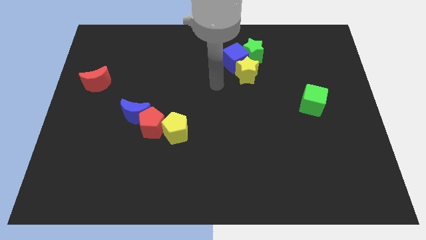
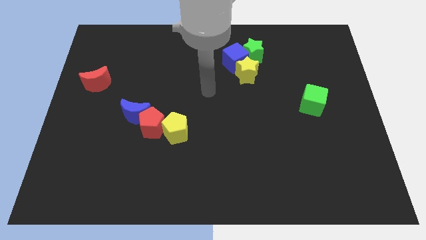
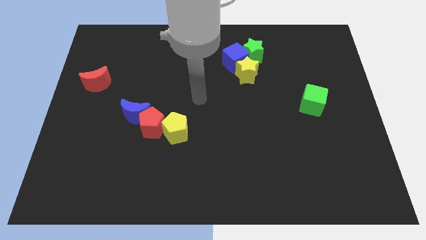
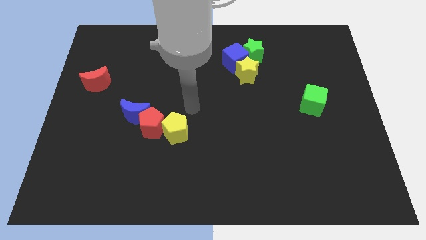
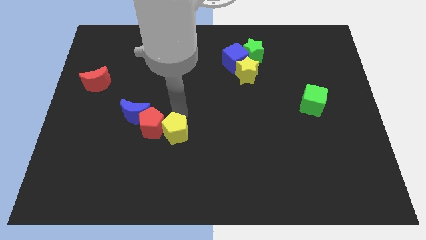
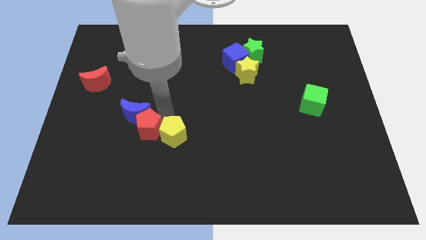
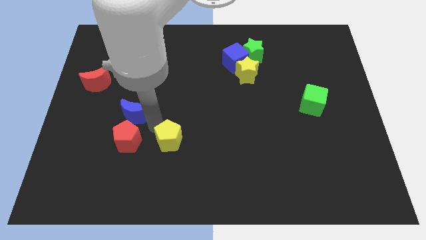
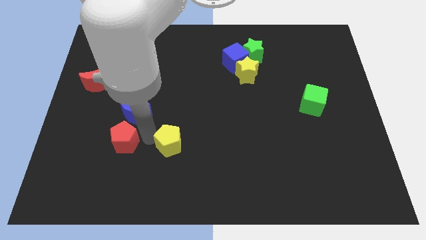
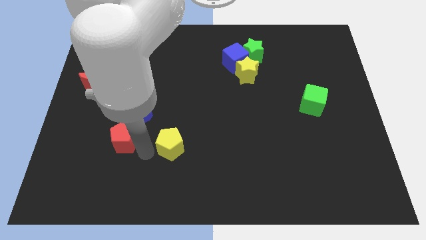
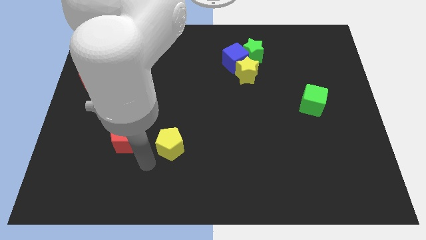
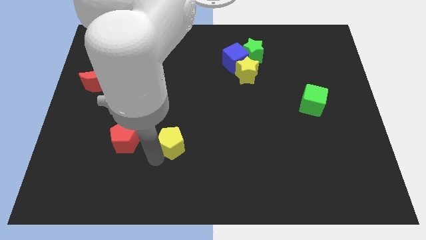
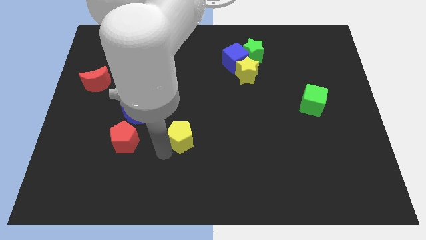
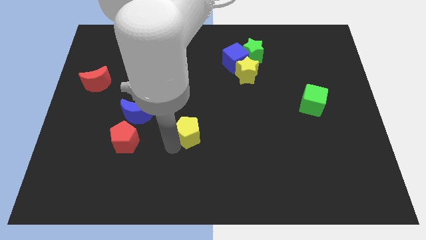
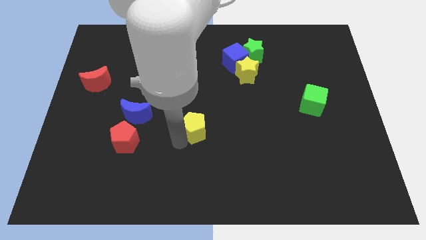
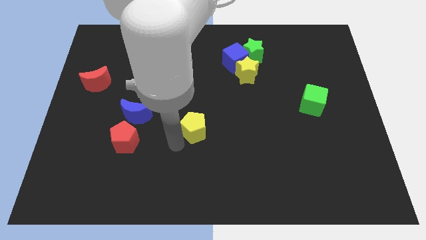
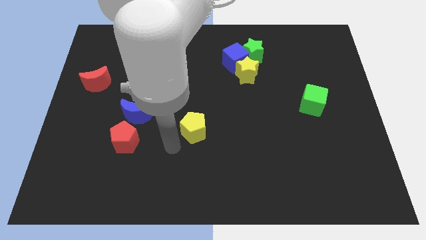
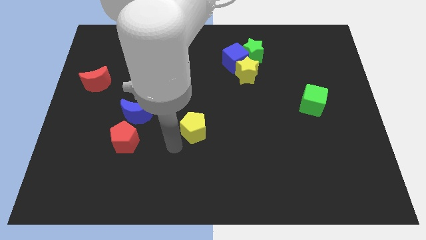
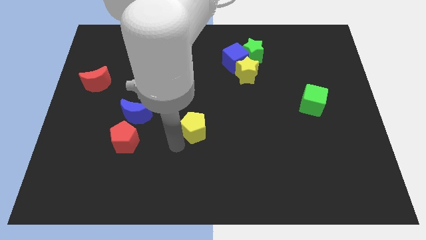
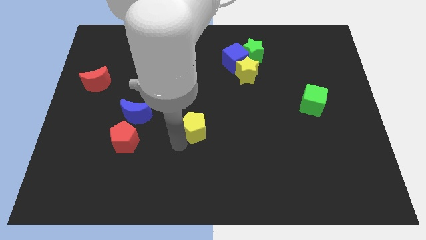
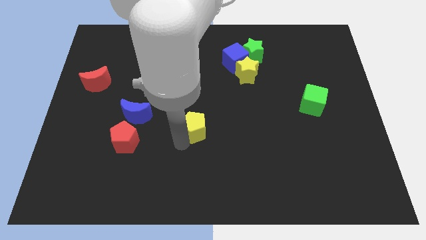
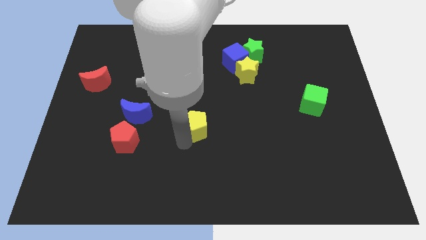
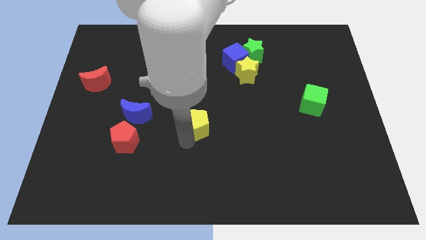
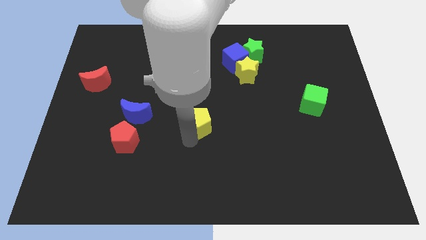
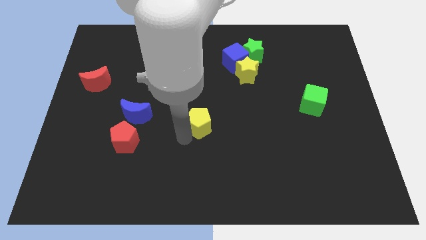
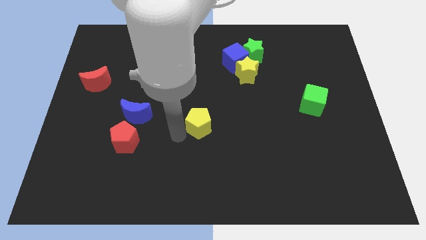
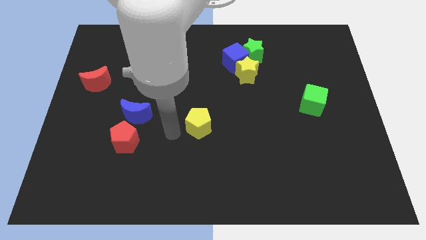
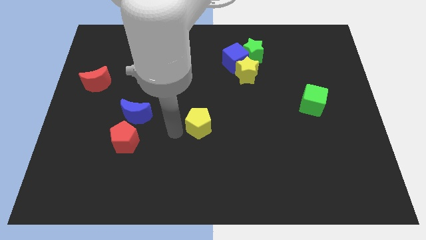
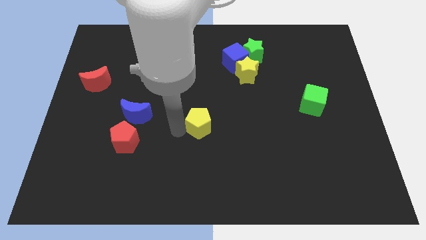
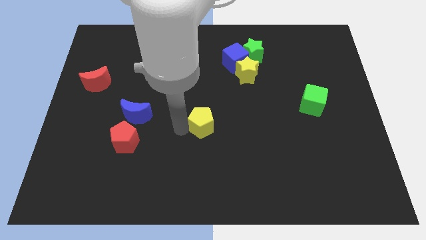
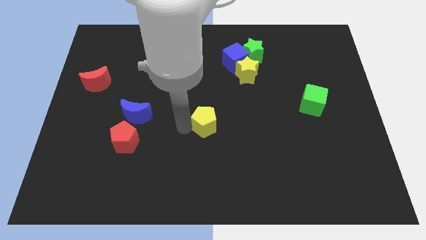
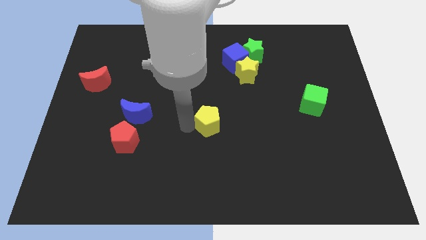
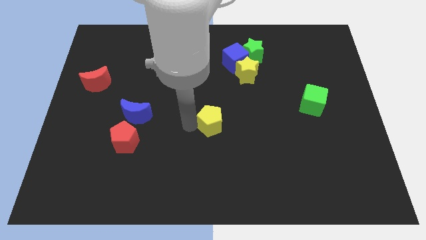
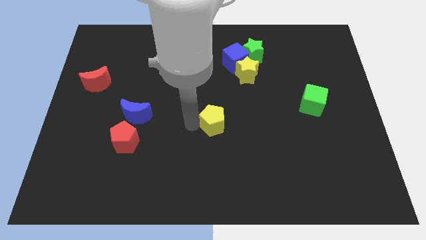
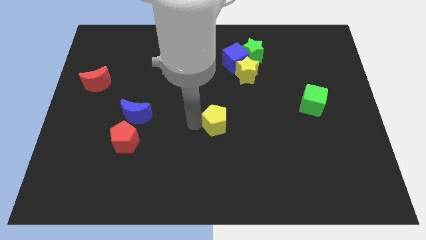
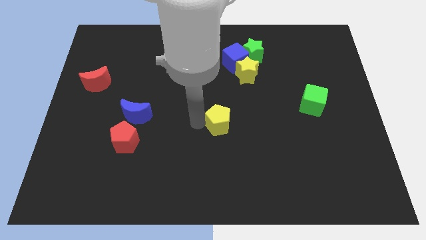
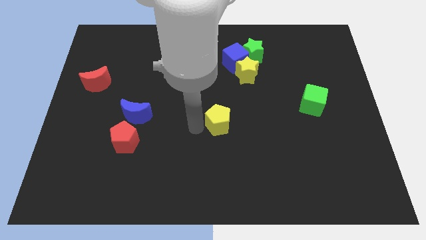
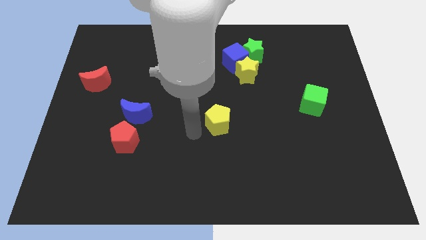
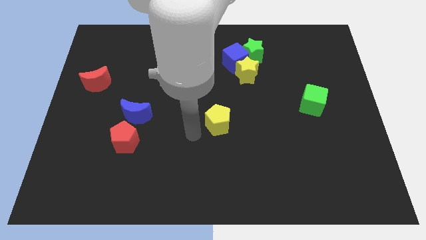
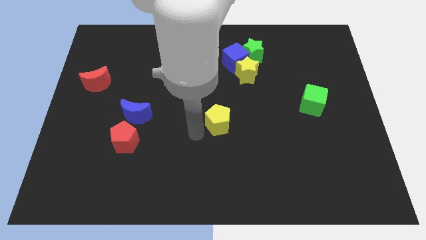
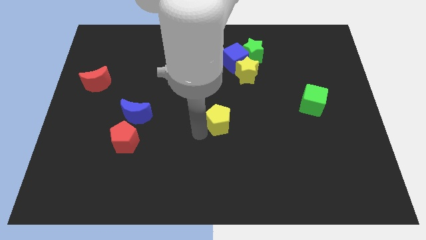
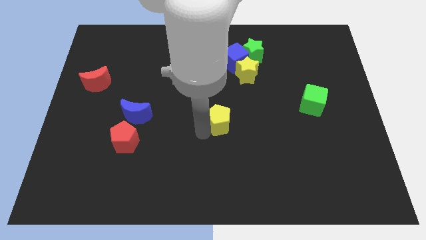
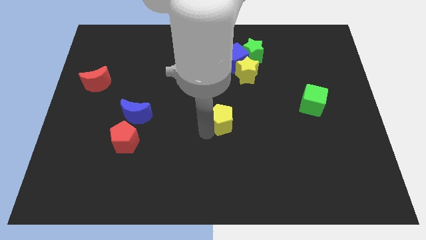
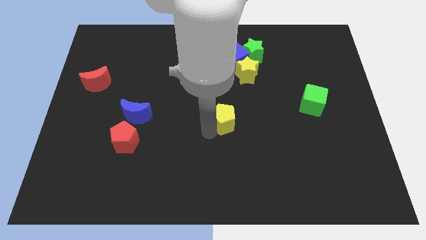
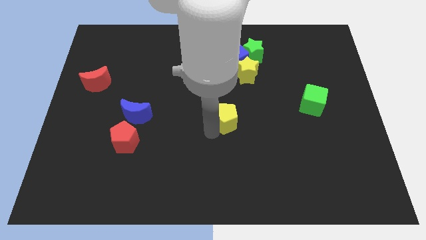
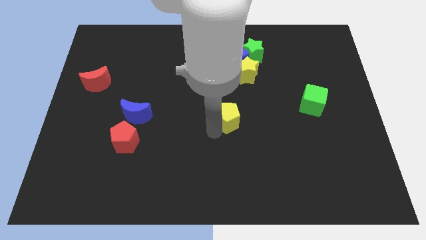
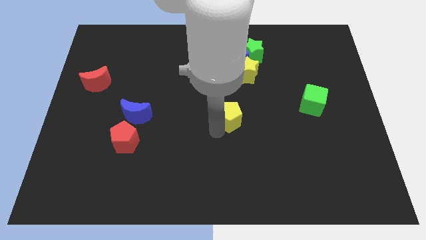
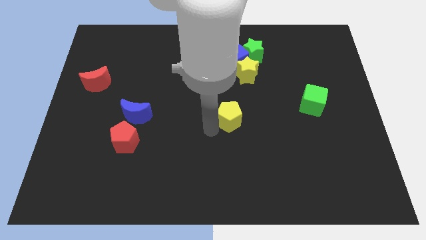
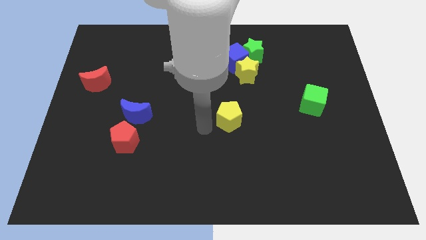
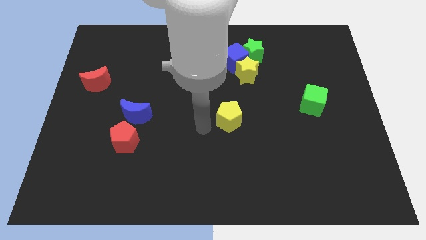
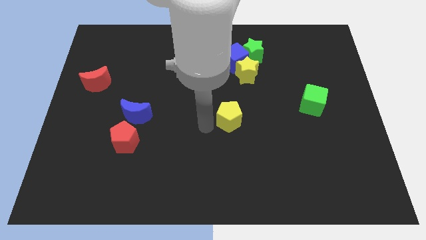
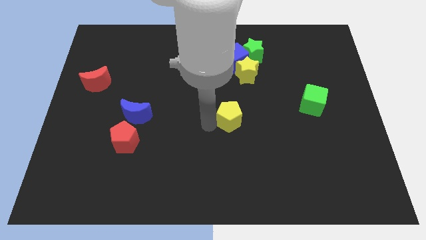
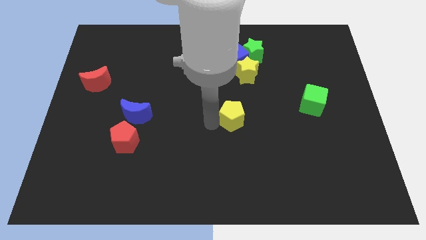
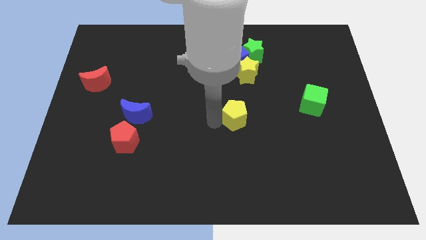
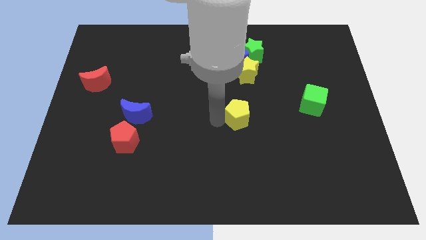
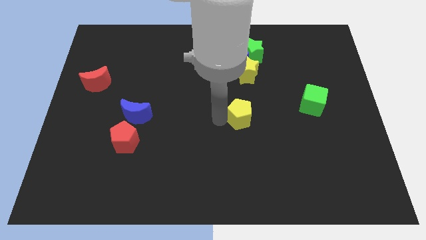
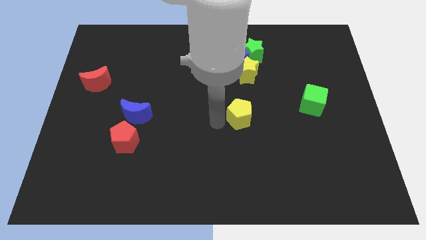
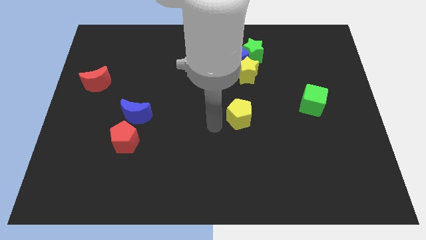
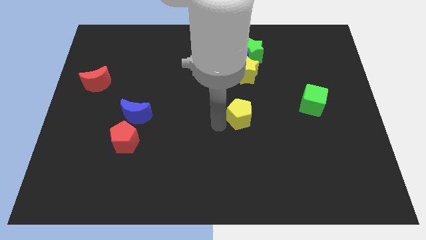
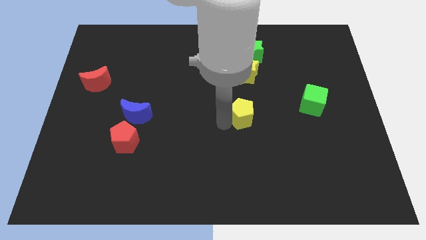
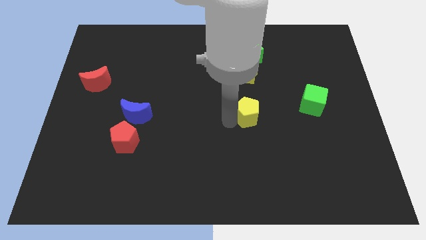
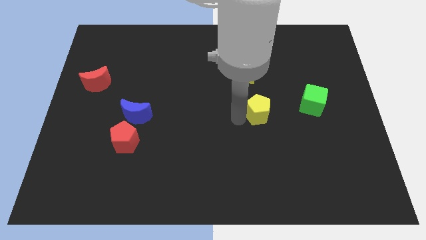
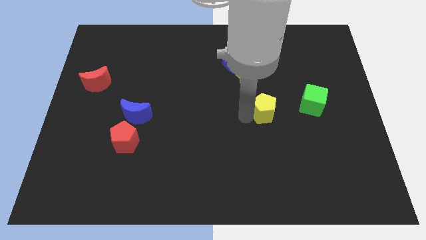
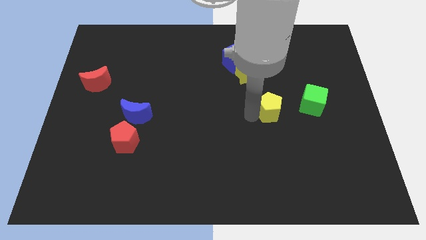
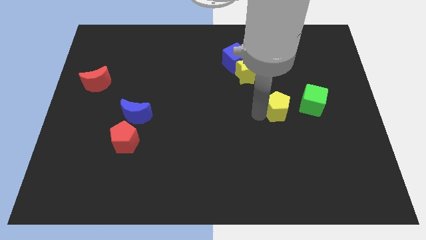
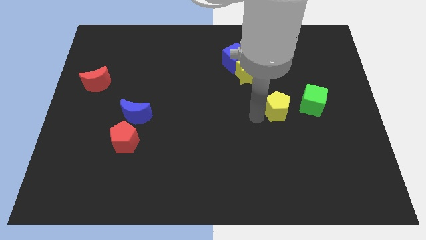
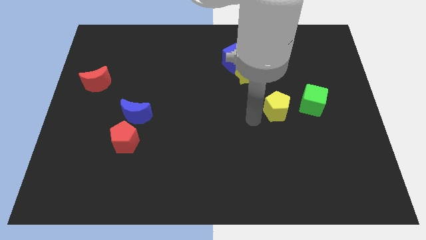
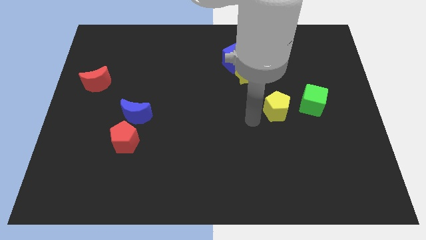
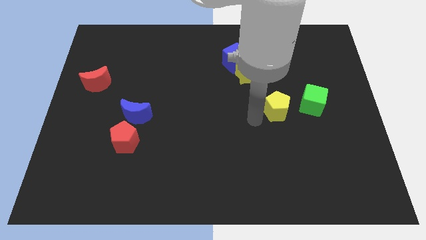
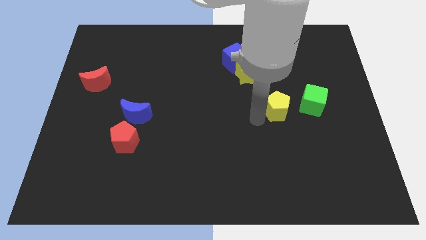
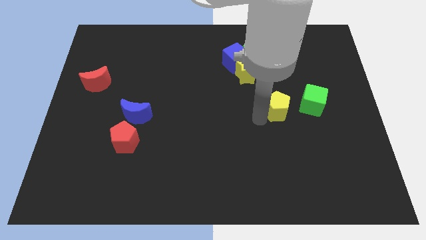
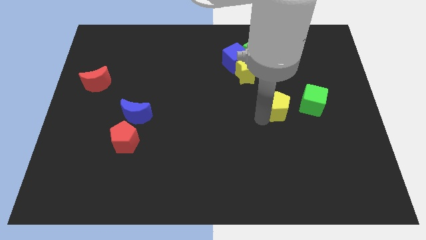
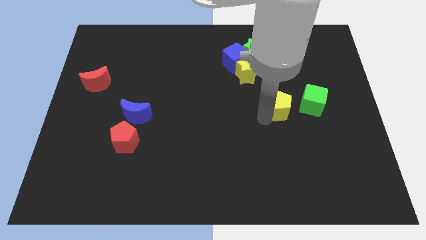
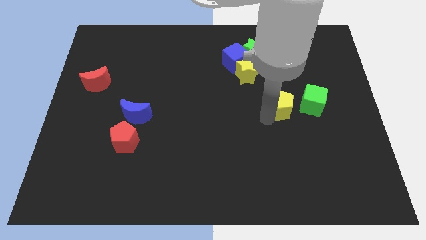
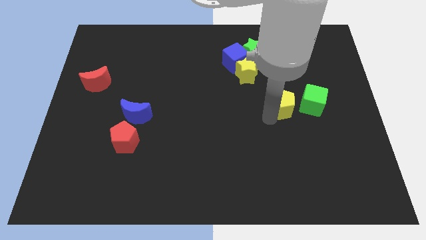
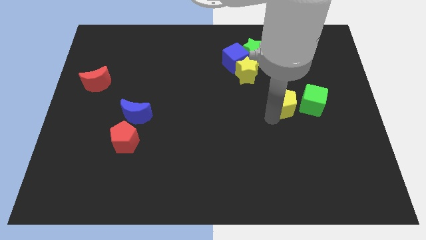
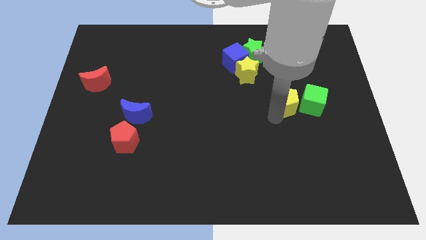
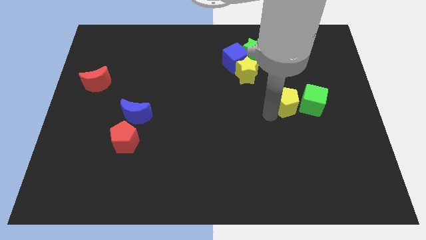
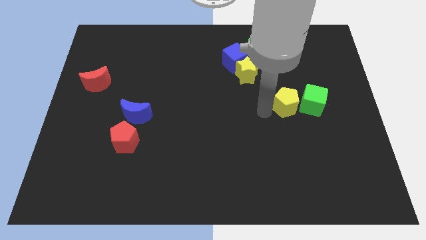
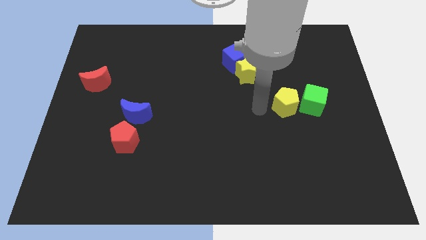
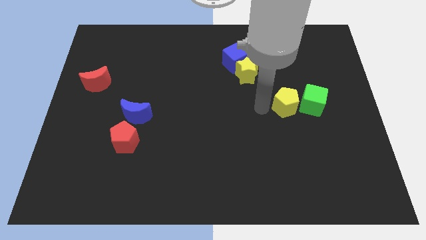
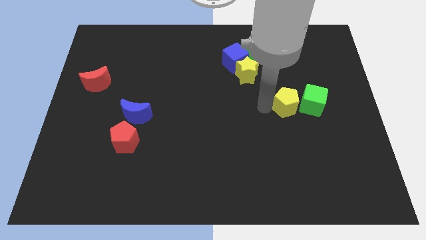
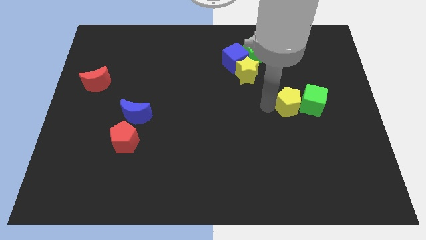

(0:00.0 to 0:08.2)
put the yellow pentagon towards the green cube
